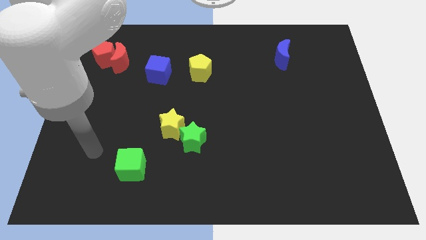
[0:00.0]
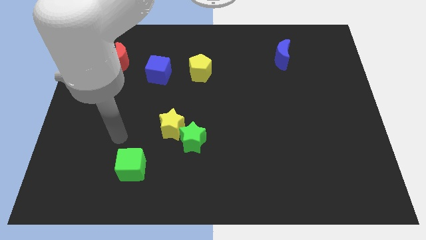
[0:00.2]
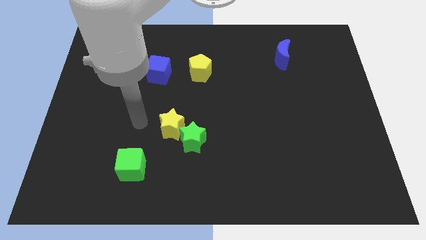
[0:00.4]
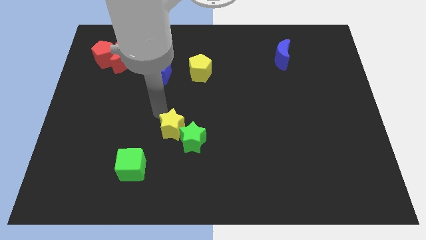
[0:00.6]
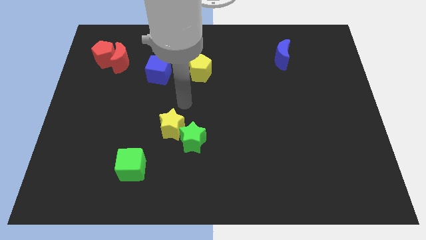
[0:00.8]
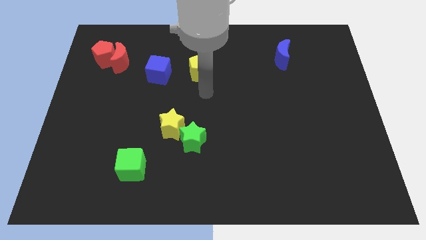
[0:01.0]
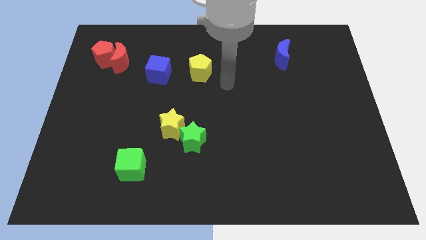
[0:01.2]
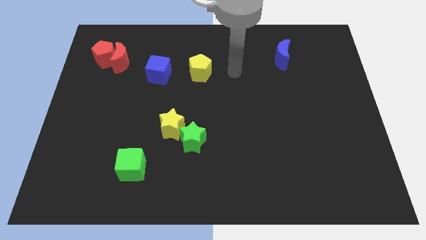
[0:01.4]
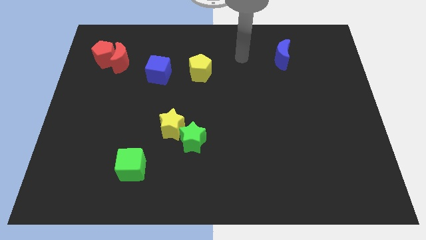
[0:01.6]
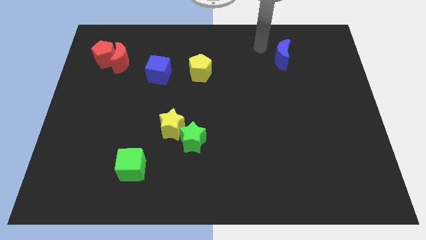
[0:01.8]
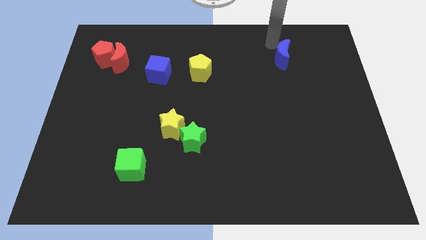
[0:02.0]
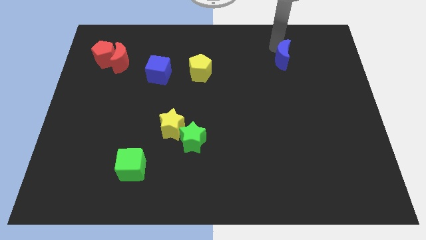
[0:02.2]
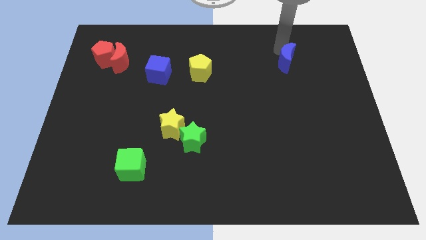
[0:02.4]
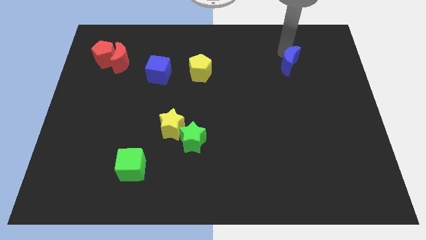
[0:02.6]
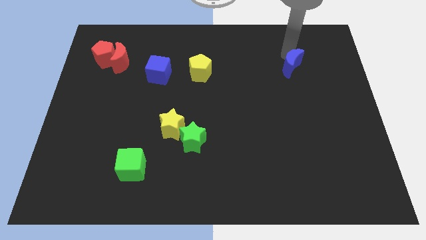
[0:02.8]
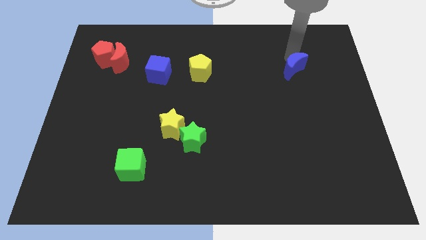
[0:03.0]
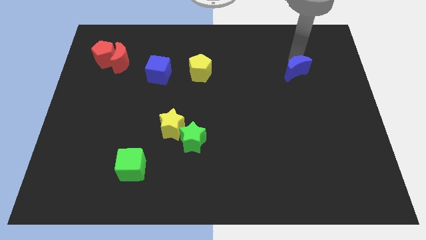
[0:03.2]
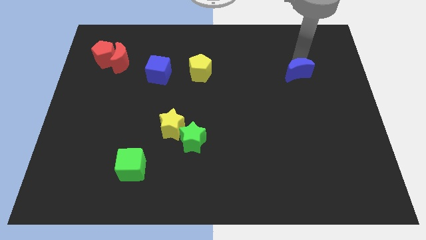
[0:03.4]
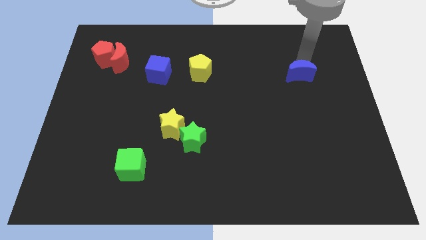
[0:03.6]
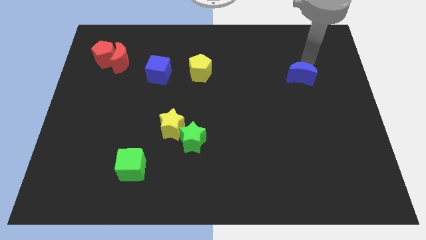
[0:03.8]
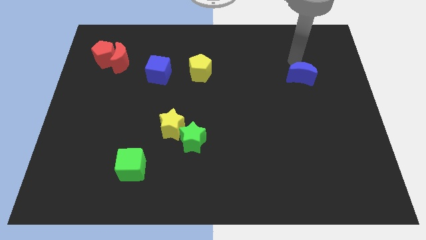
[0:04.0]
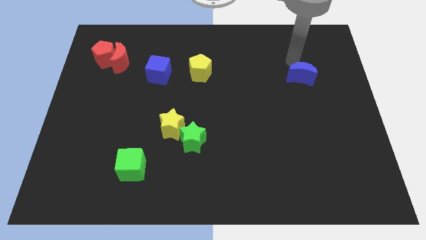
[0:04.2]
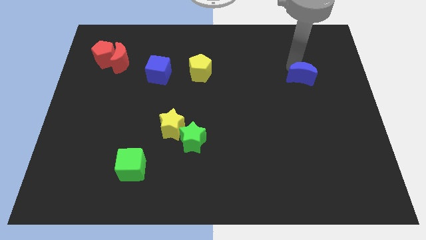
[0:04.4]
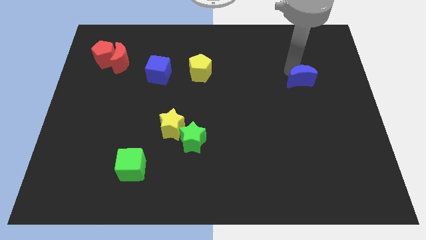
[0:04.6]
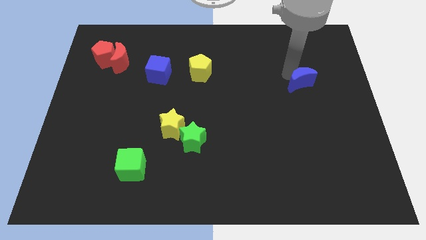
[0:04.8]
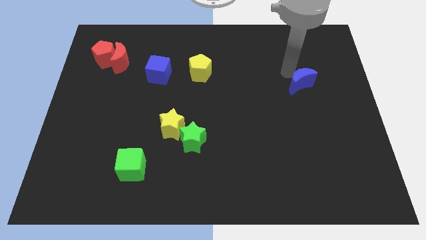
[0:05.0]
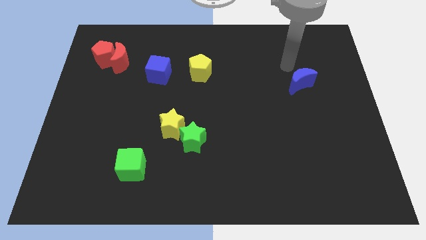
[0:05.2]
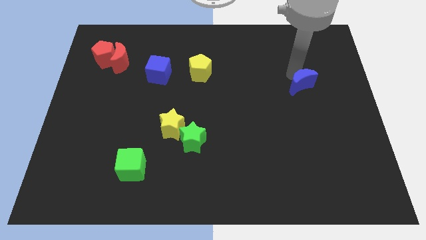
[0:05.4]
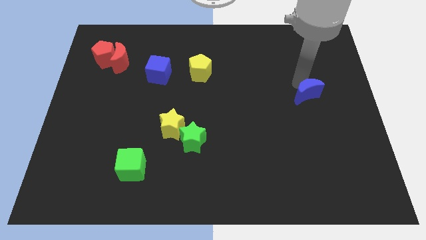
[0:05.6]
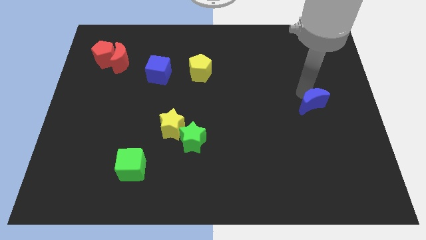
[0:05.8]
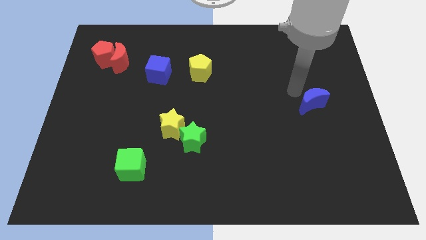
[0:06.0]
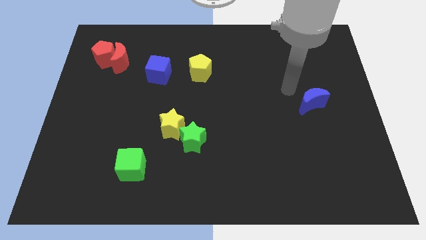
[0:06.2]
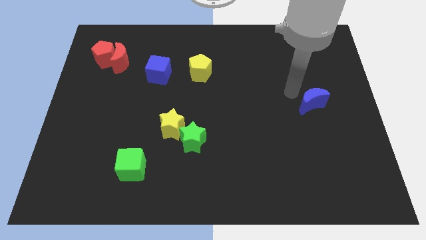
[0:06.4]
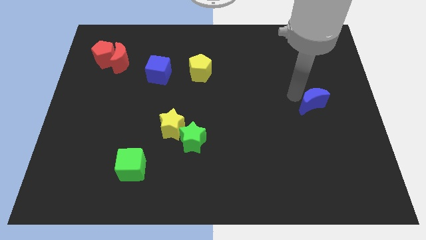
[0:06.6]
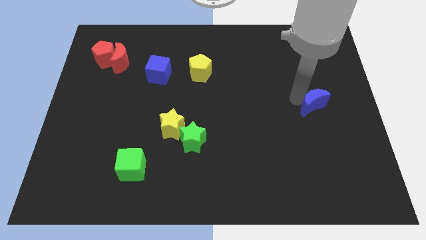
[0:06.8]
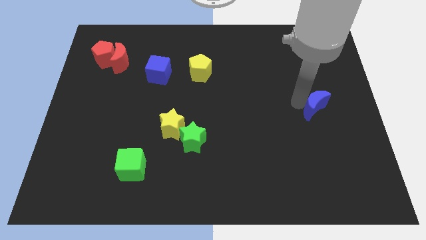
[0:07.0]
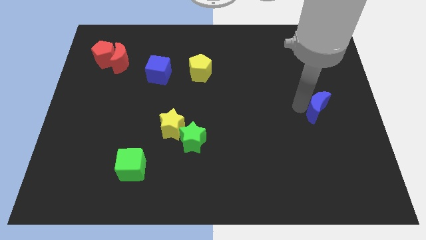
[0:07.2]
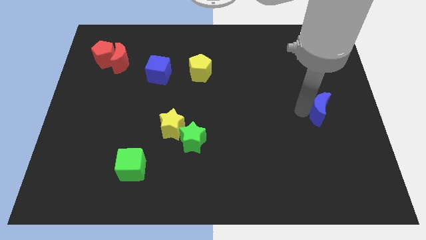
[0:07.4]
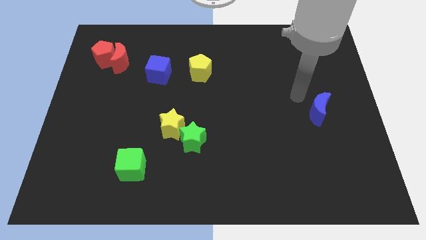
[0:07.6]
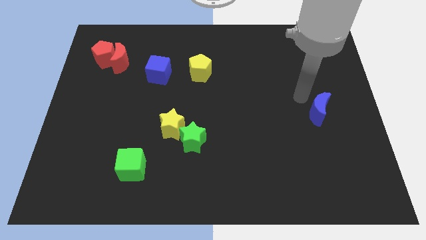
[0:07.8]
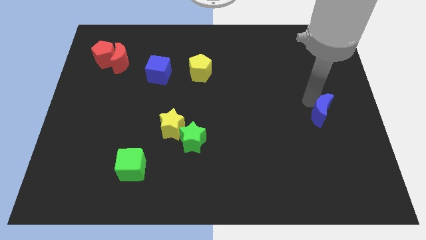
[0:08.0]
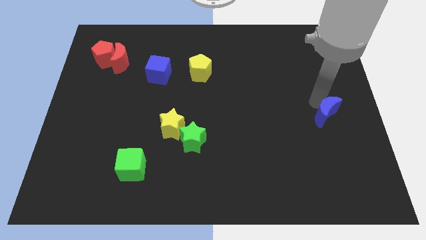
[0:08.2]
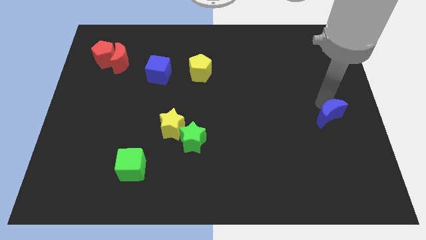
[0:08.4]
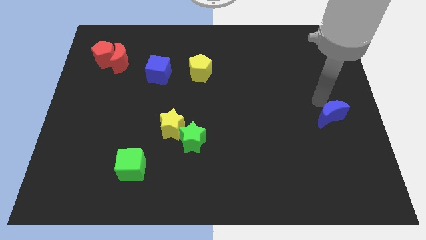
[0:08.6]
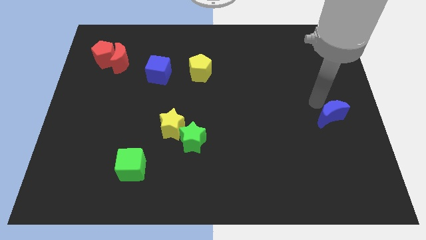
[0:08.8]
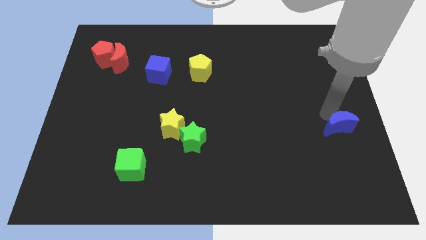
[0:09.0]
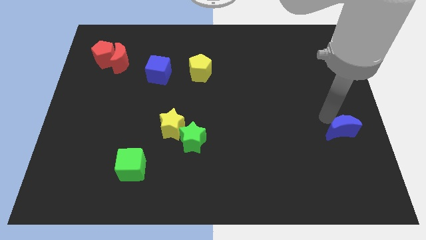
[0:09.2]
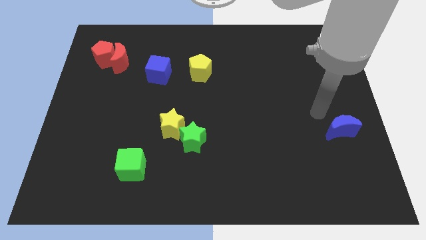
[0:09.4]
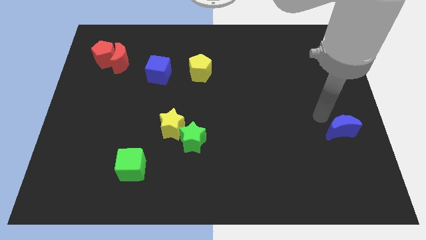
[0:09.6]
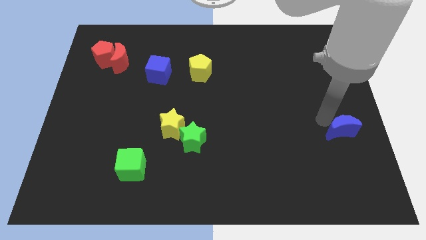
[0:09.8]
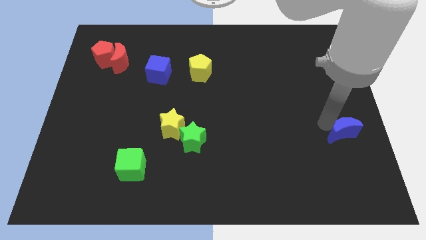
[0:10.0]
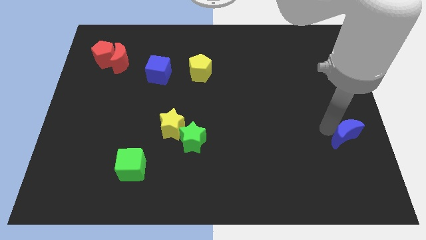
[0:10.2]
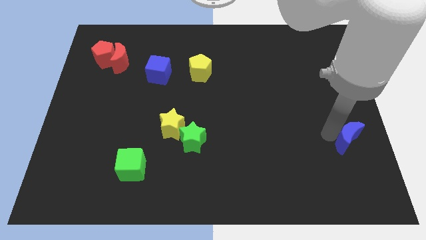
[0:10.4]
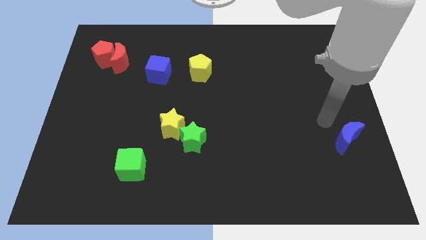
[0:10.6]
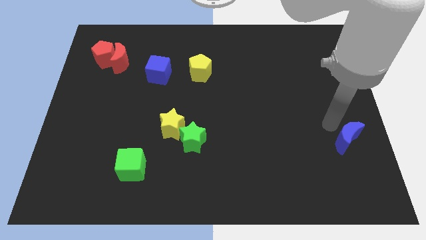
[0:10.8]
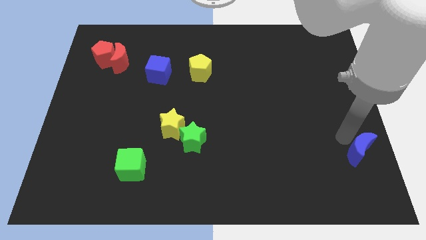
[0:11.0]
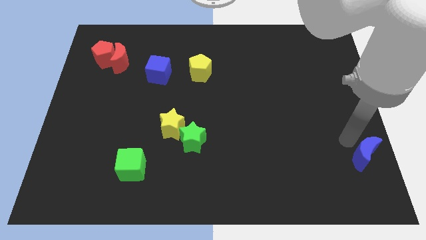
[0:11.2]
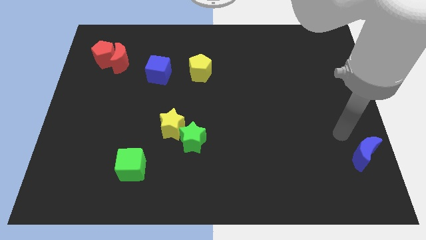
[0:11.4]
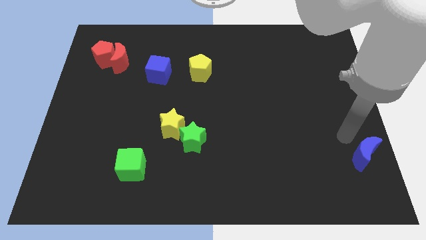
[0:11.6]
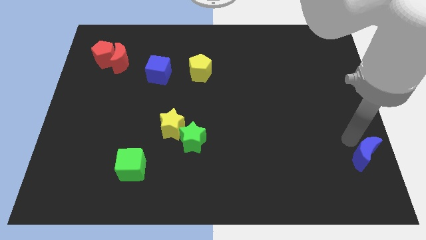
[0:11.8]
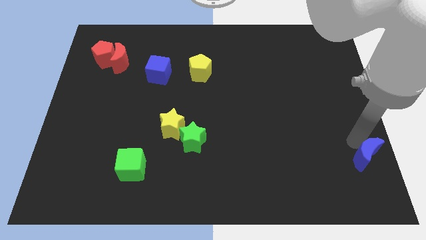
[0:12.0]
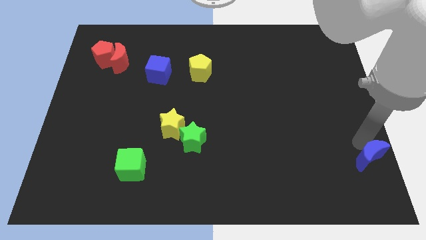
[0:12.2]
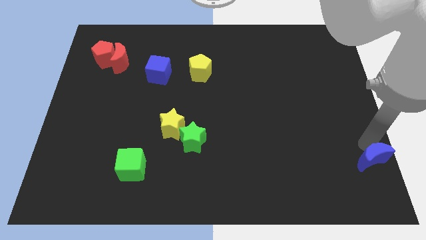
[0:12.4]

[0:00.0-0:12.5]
put the blue moon to the bottom right corner

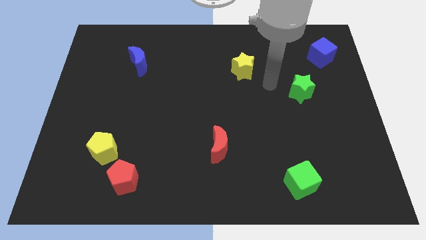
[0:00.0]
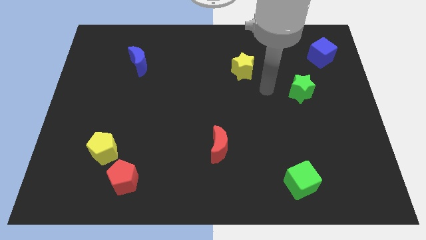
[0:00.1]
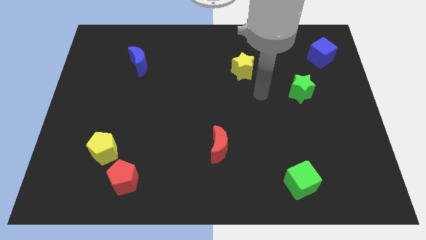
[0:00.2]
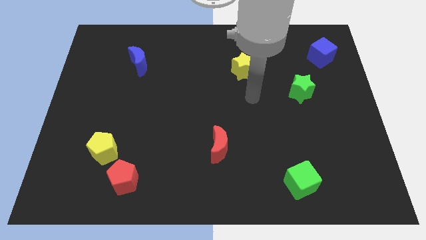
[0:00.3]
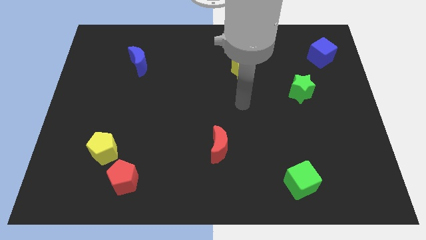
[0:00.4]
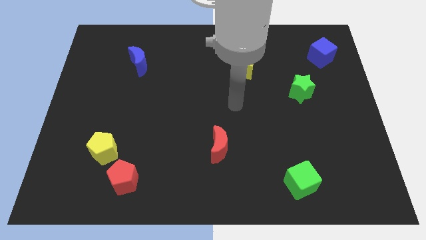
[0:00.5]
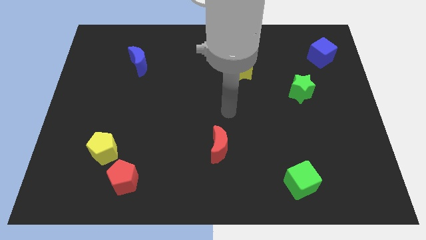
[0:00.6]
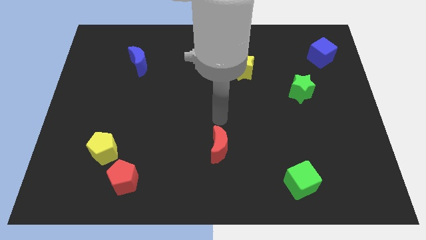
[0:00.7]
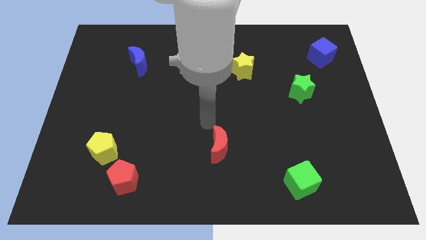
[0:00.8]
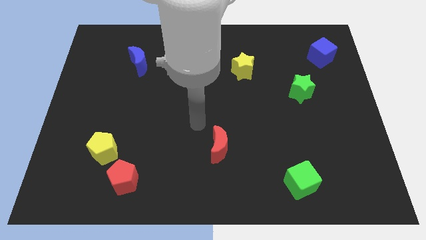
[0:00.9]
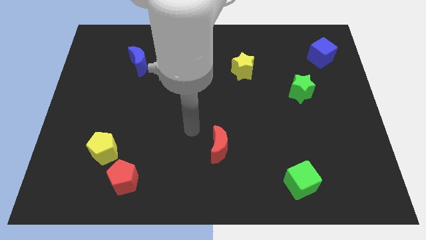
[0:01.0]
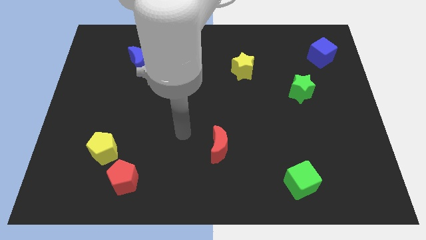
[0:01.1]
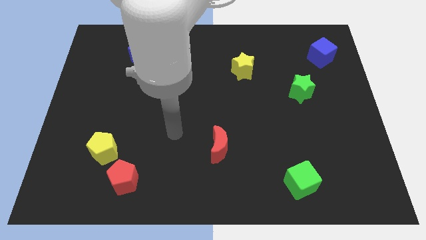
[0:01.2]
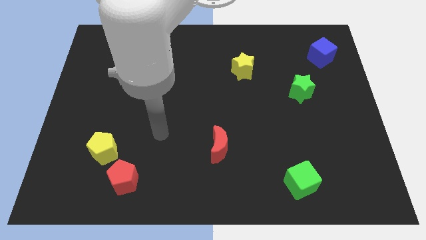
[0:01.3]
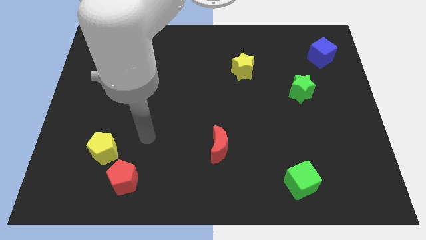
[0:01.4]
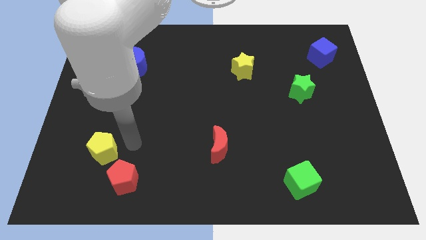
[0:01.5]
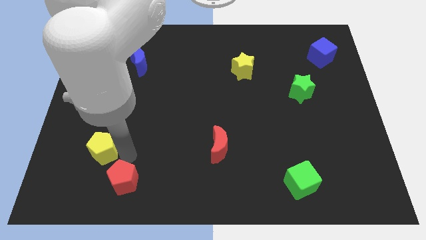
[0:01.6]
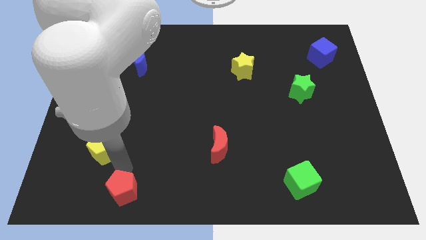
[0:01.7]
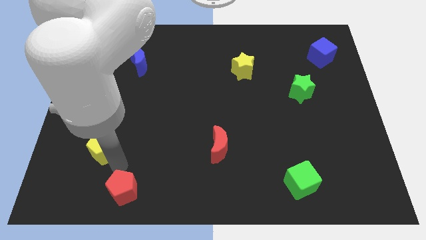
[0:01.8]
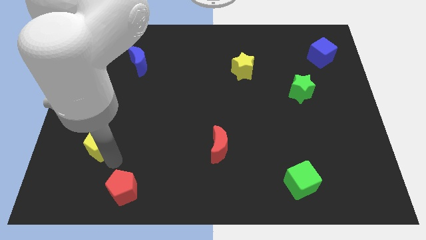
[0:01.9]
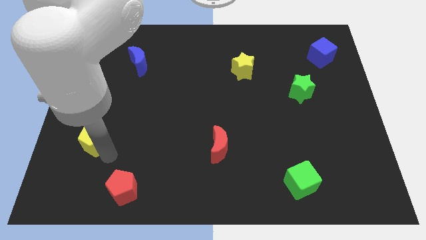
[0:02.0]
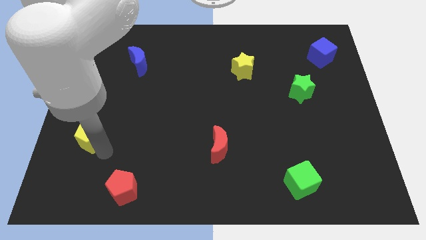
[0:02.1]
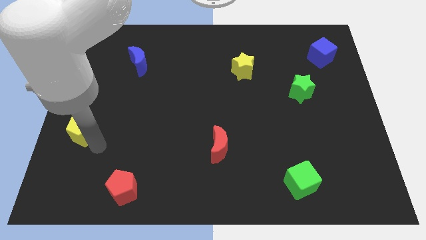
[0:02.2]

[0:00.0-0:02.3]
move the yellow pentagon to the left side
